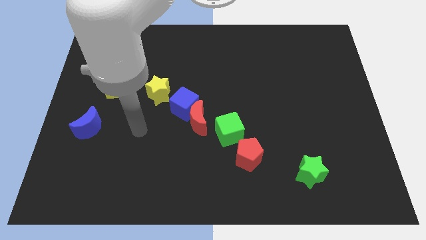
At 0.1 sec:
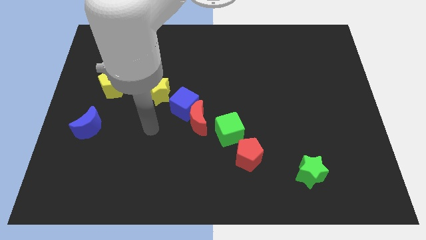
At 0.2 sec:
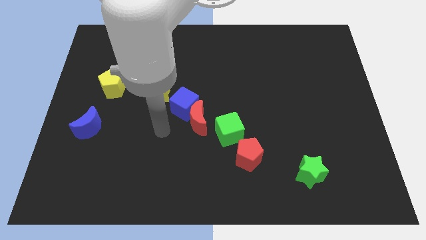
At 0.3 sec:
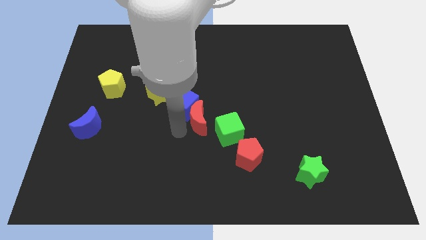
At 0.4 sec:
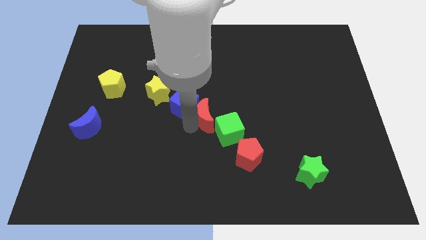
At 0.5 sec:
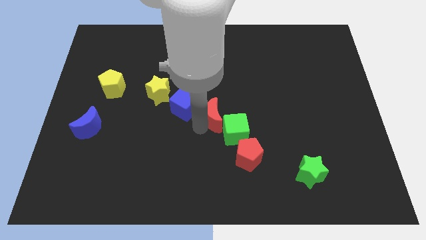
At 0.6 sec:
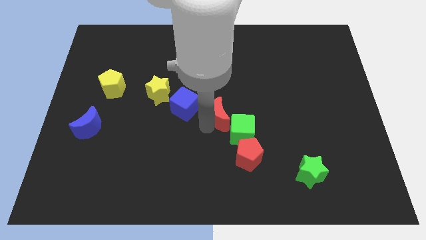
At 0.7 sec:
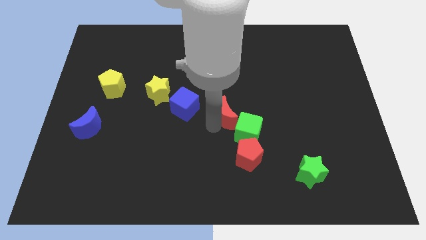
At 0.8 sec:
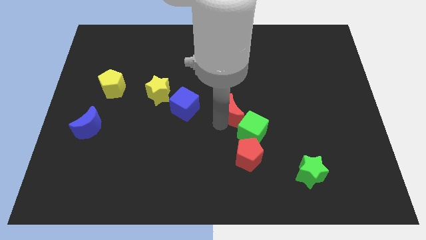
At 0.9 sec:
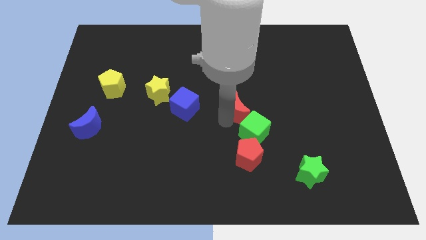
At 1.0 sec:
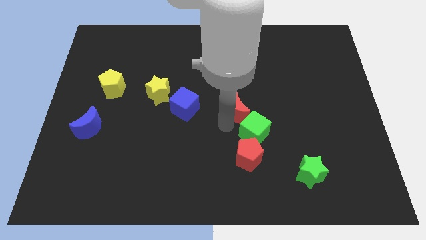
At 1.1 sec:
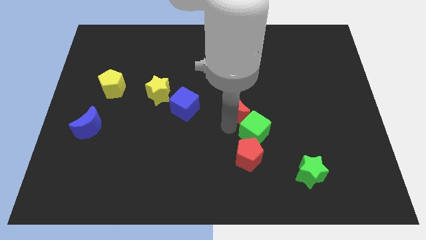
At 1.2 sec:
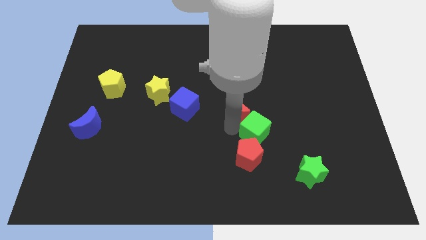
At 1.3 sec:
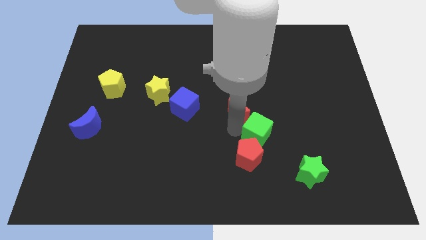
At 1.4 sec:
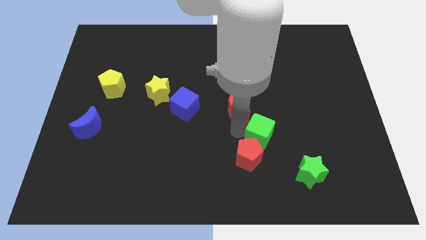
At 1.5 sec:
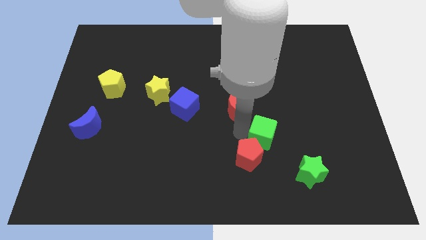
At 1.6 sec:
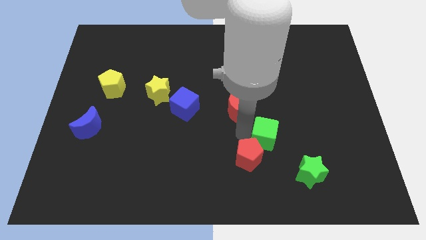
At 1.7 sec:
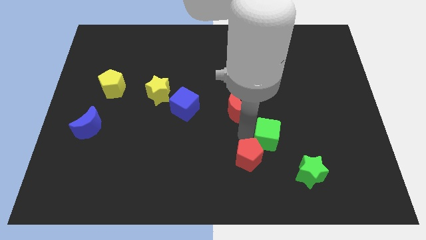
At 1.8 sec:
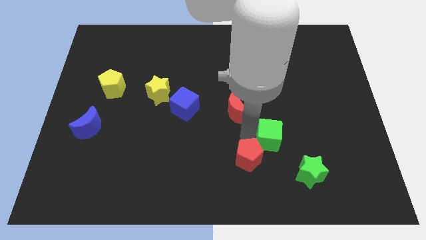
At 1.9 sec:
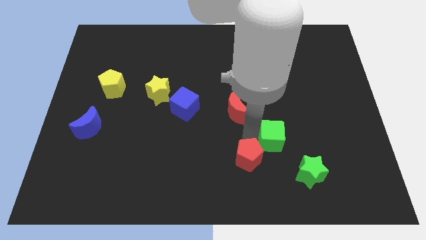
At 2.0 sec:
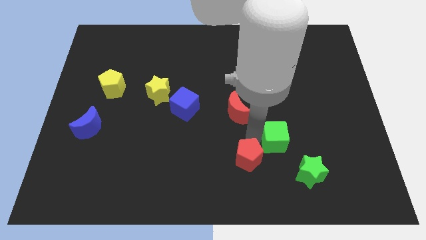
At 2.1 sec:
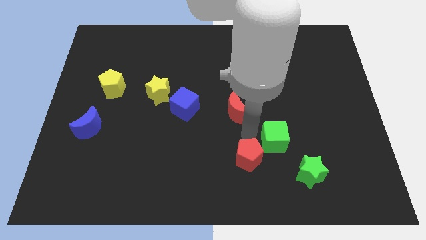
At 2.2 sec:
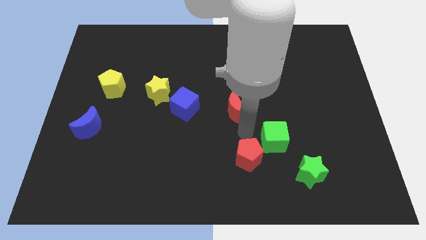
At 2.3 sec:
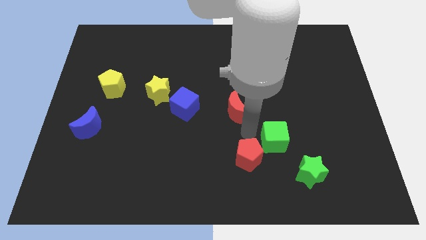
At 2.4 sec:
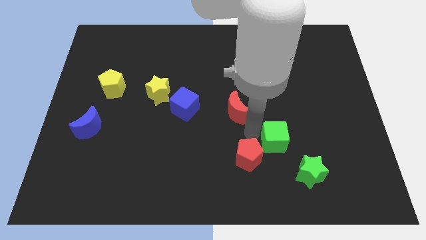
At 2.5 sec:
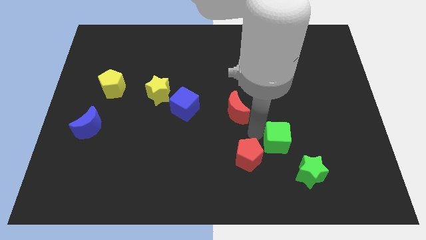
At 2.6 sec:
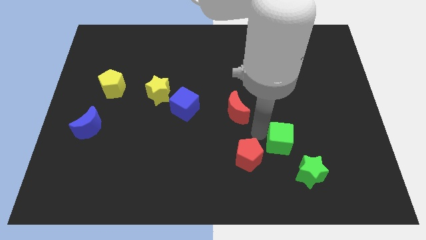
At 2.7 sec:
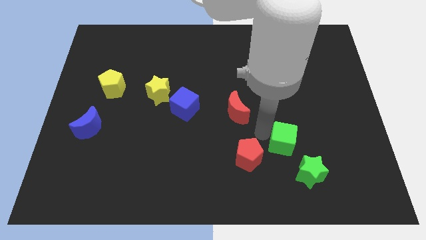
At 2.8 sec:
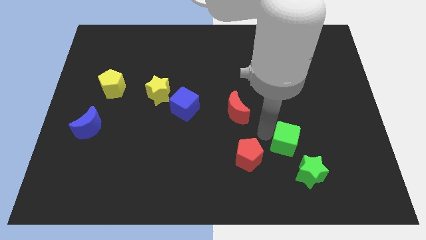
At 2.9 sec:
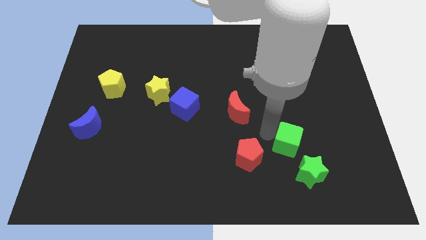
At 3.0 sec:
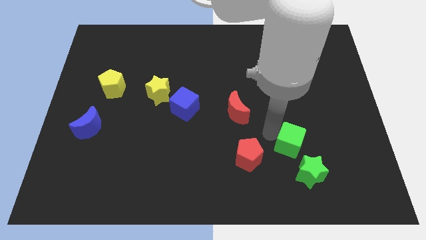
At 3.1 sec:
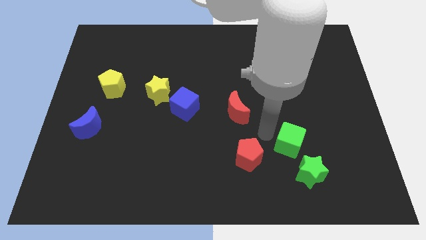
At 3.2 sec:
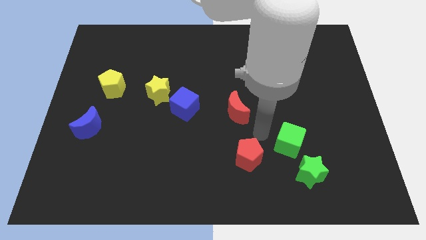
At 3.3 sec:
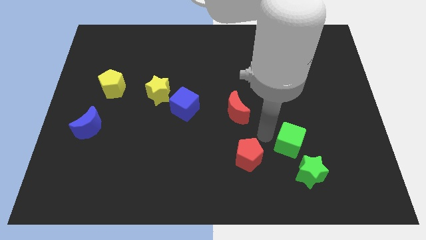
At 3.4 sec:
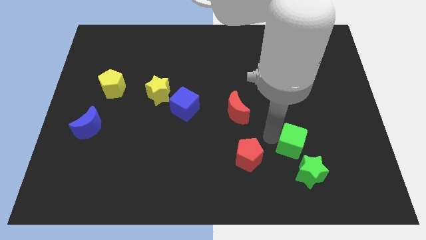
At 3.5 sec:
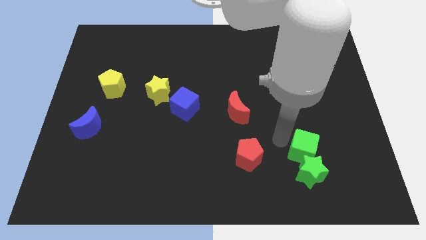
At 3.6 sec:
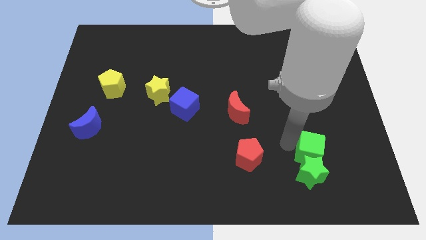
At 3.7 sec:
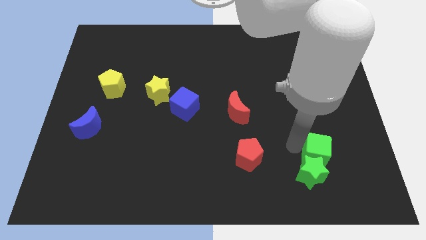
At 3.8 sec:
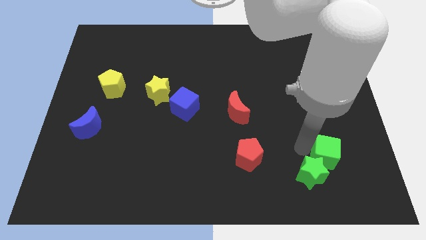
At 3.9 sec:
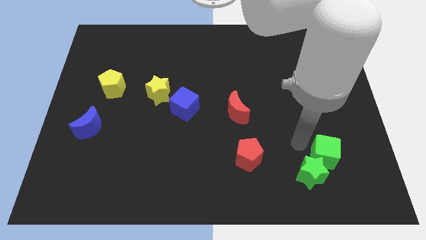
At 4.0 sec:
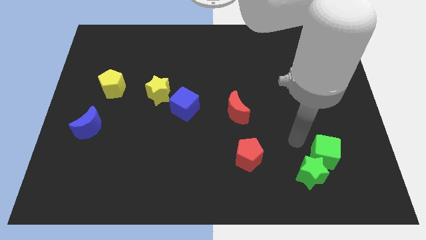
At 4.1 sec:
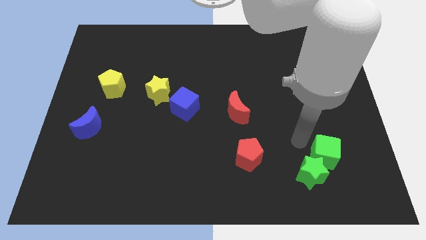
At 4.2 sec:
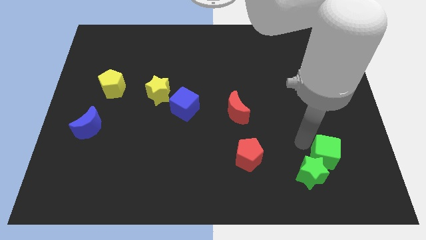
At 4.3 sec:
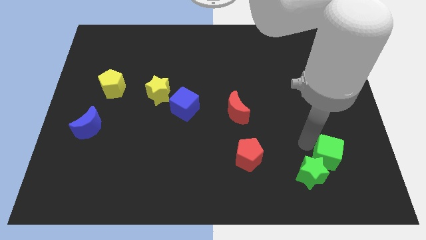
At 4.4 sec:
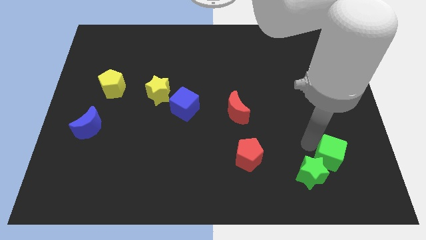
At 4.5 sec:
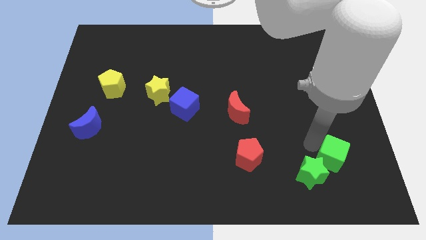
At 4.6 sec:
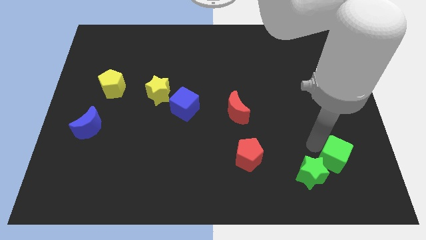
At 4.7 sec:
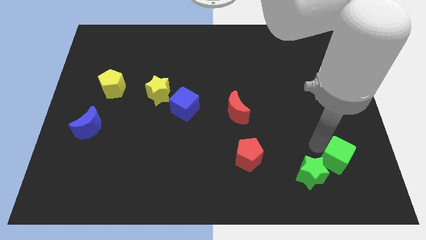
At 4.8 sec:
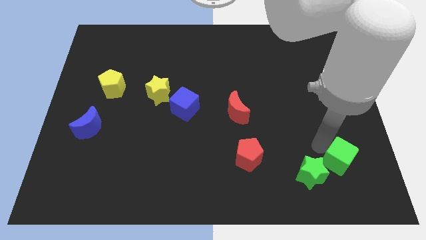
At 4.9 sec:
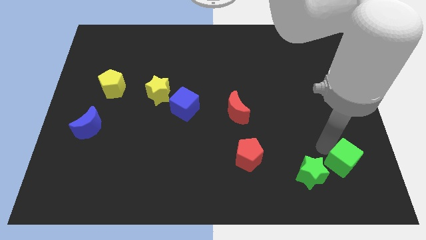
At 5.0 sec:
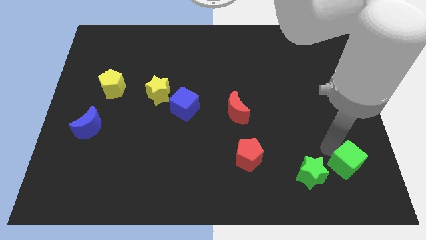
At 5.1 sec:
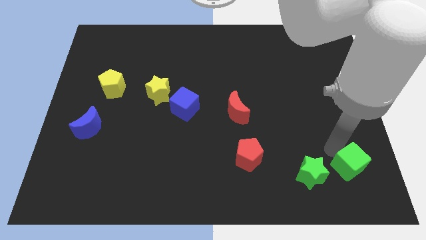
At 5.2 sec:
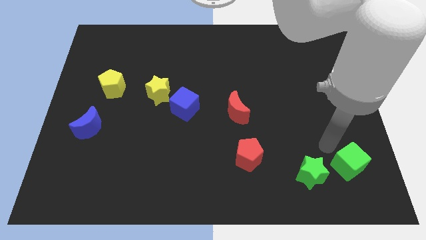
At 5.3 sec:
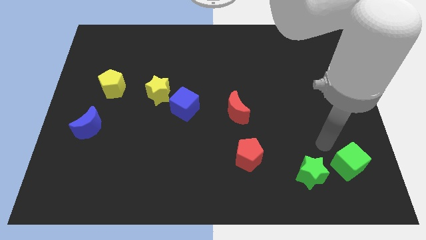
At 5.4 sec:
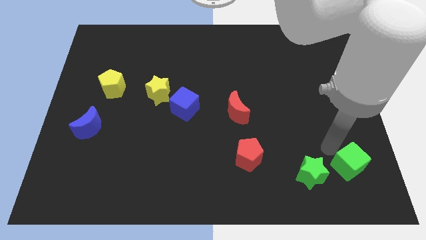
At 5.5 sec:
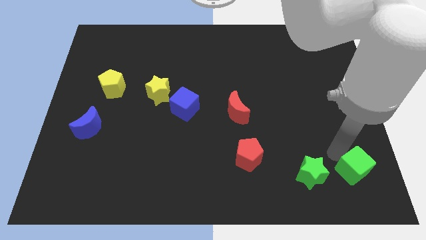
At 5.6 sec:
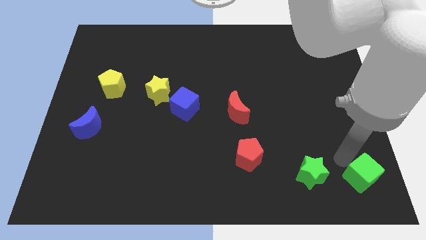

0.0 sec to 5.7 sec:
slide the green cube to the bottom right of the board

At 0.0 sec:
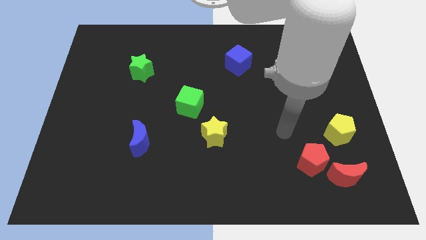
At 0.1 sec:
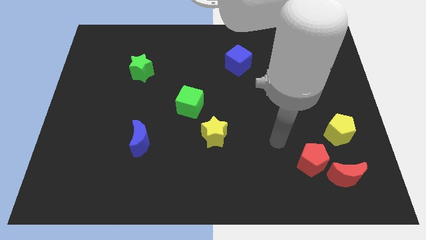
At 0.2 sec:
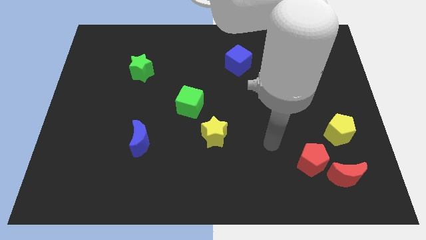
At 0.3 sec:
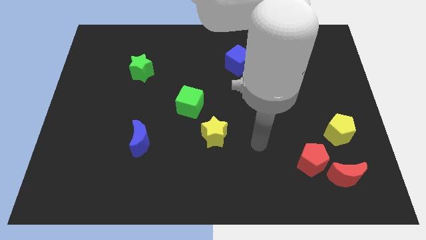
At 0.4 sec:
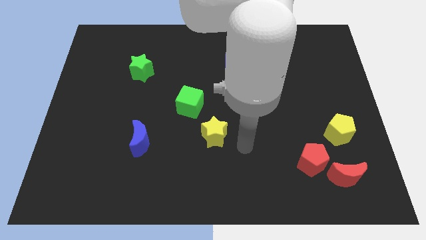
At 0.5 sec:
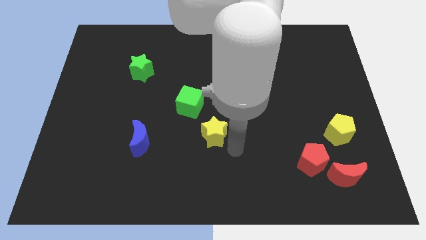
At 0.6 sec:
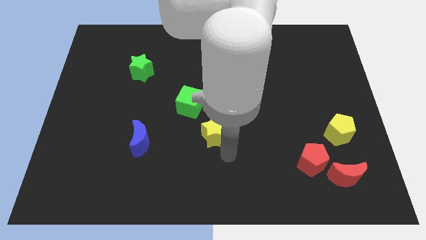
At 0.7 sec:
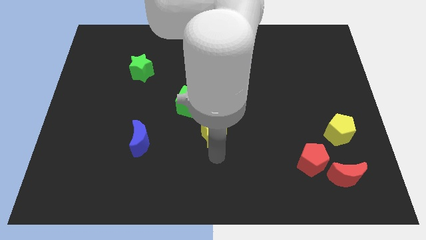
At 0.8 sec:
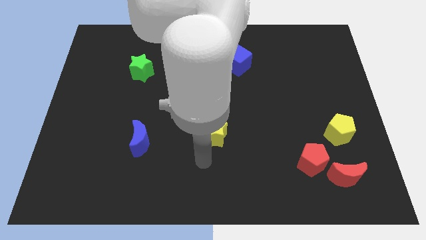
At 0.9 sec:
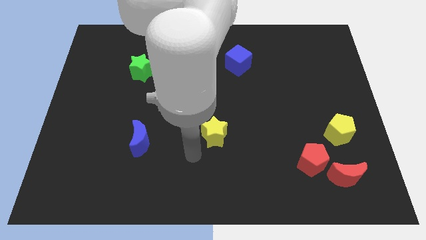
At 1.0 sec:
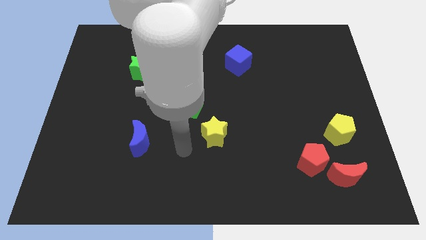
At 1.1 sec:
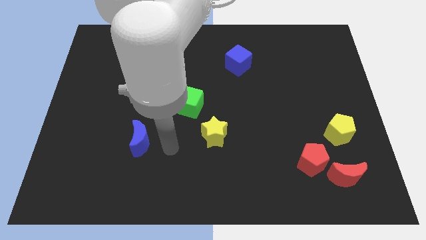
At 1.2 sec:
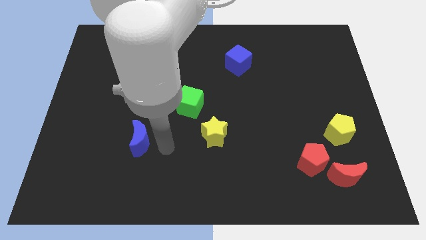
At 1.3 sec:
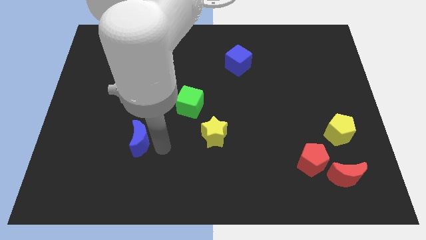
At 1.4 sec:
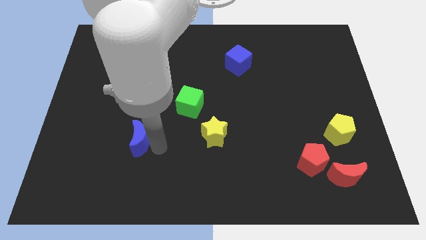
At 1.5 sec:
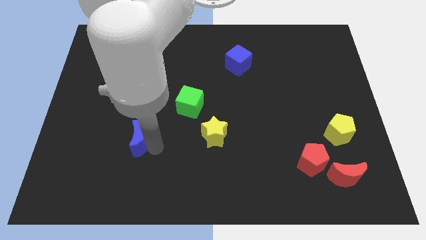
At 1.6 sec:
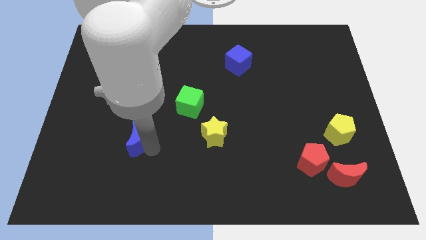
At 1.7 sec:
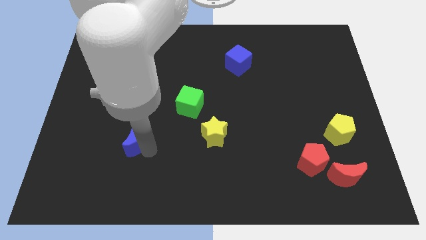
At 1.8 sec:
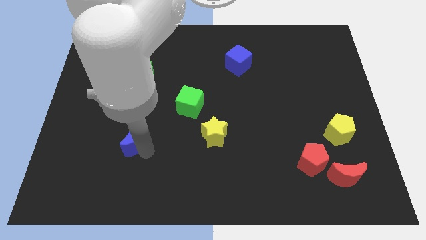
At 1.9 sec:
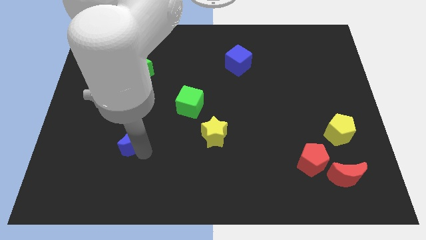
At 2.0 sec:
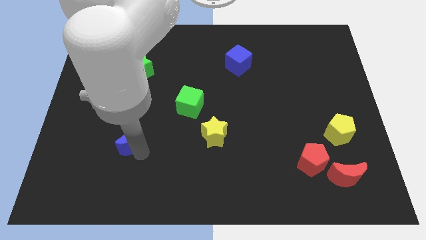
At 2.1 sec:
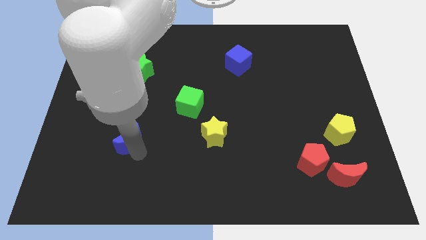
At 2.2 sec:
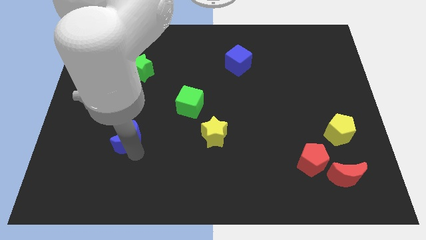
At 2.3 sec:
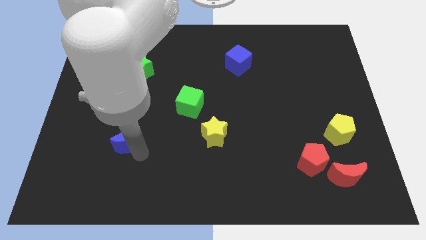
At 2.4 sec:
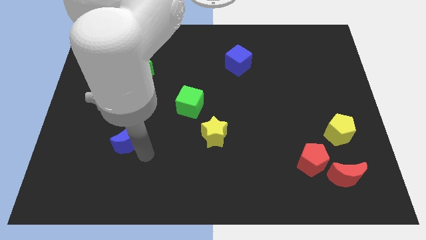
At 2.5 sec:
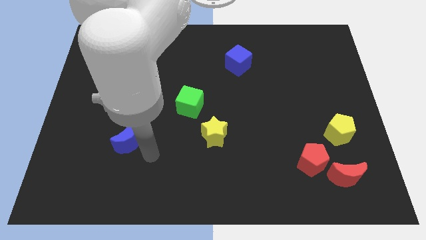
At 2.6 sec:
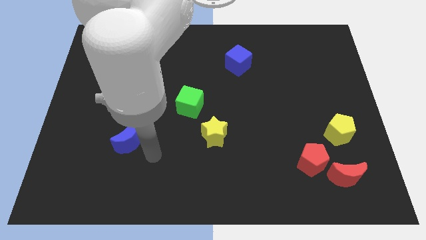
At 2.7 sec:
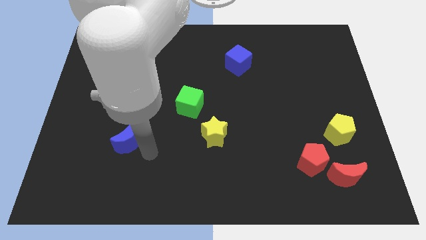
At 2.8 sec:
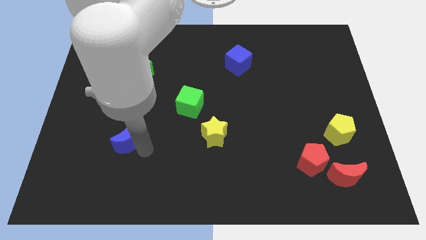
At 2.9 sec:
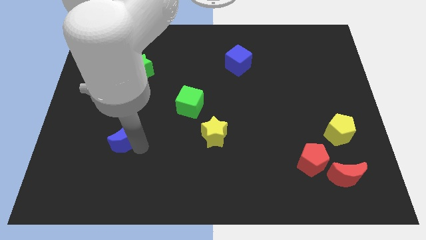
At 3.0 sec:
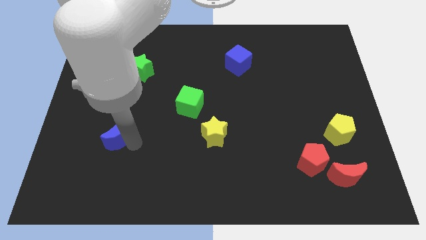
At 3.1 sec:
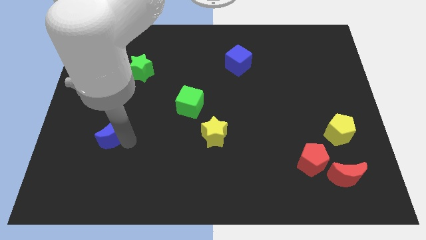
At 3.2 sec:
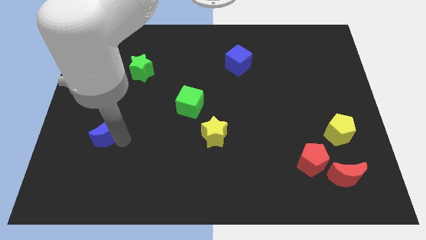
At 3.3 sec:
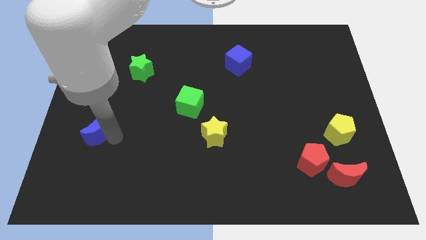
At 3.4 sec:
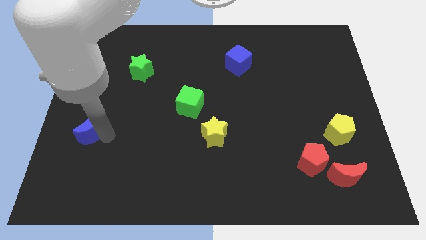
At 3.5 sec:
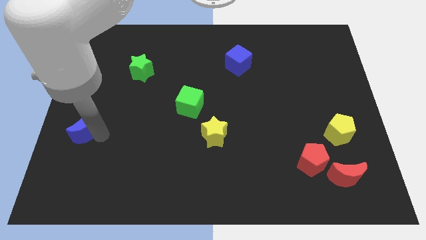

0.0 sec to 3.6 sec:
push the blue moon to the center left
